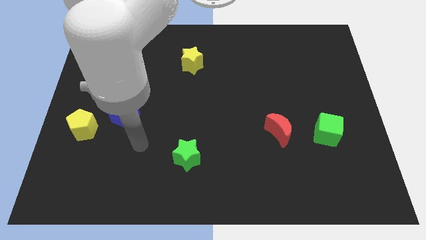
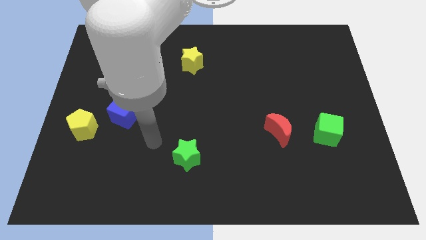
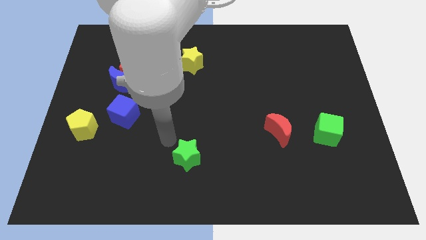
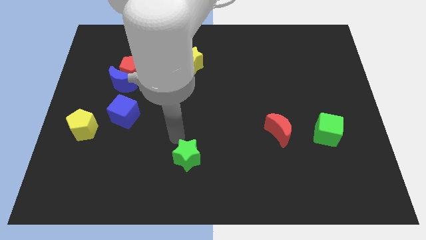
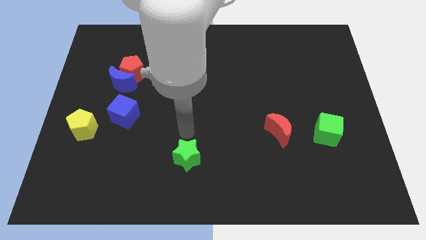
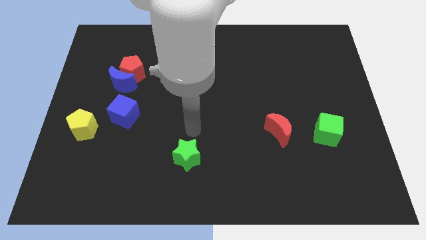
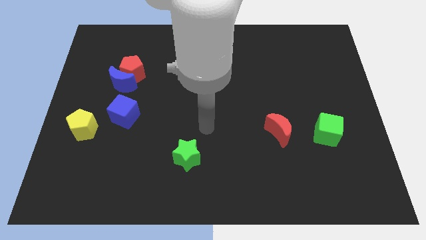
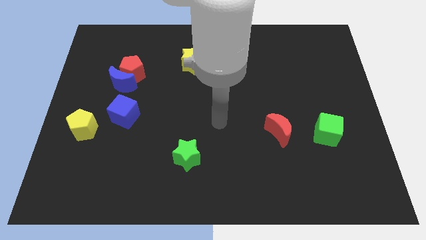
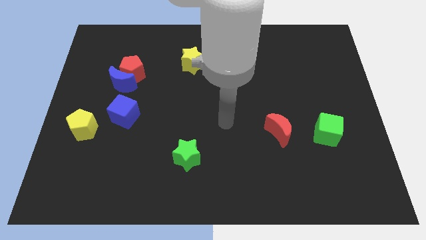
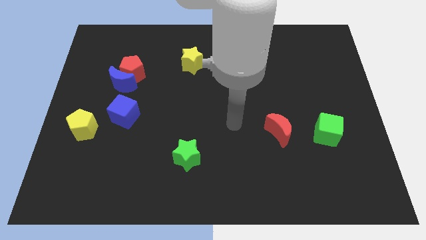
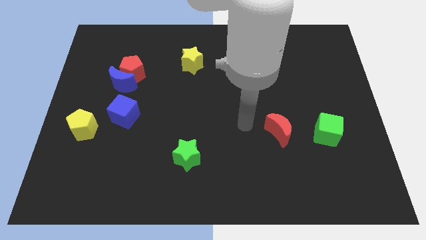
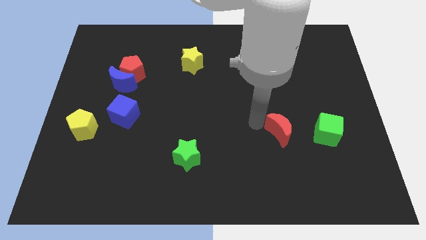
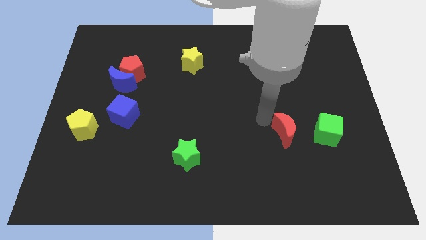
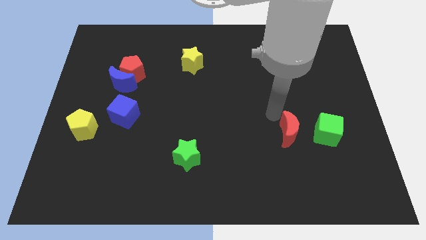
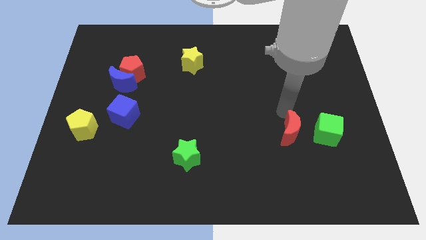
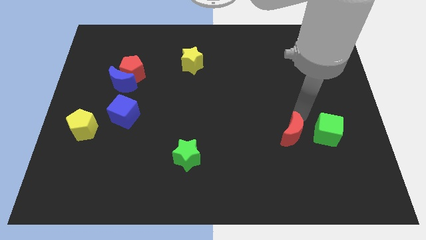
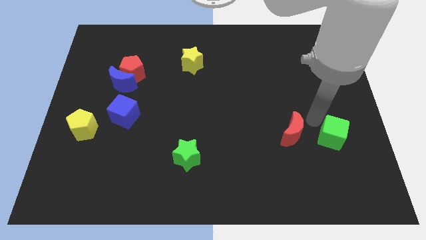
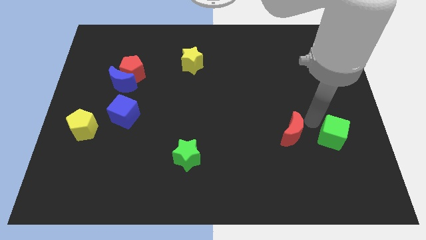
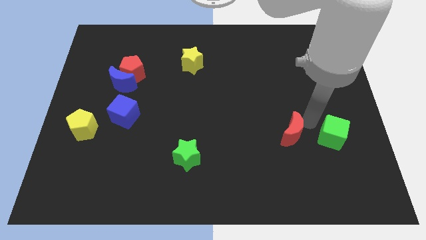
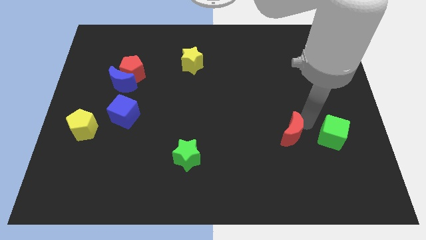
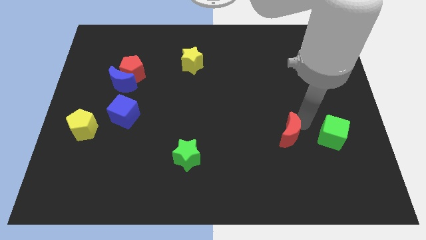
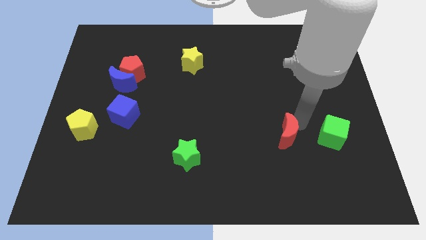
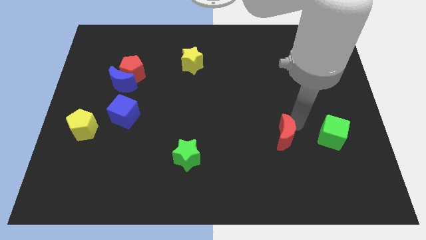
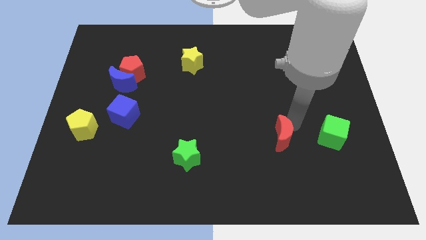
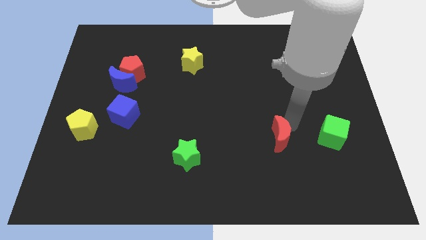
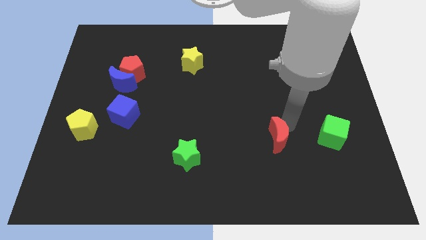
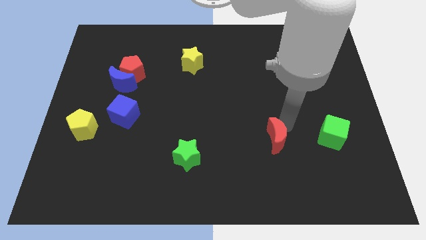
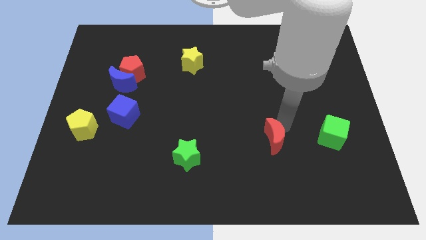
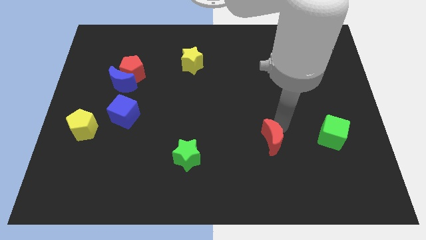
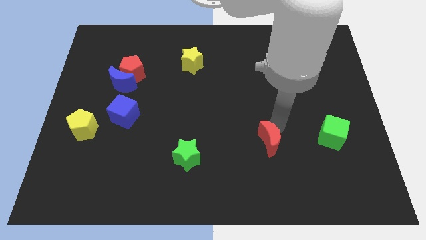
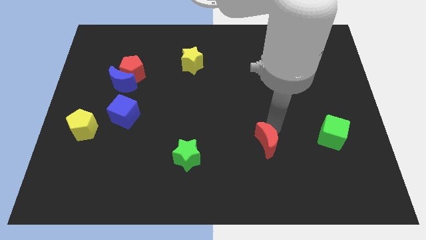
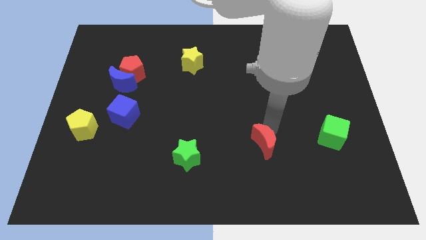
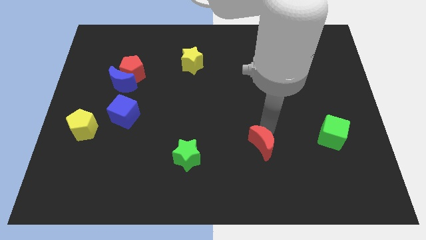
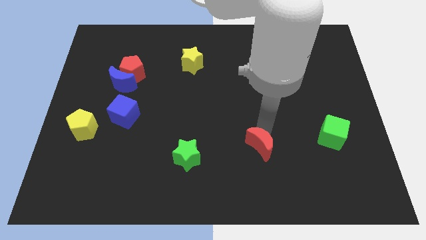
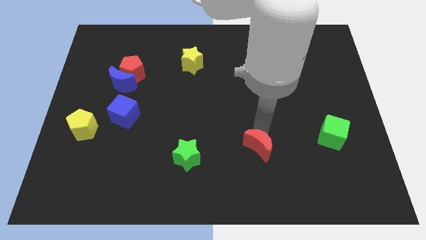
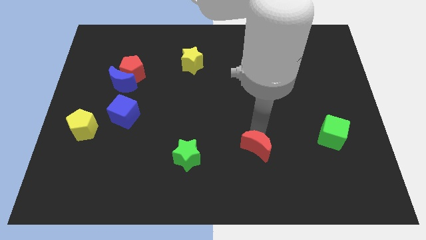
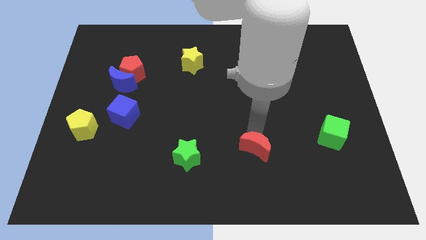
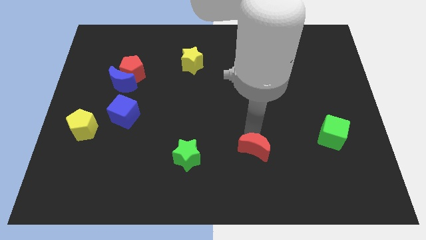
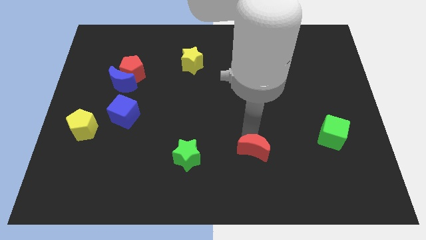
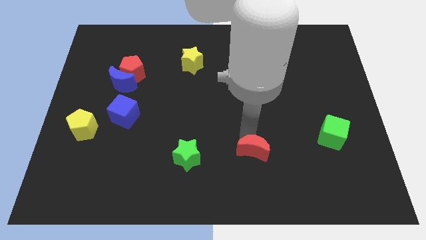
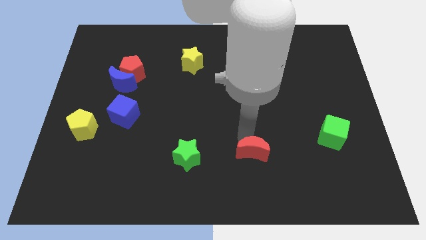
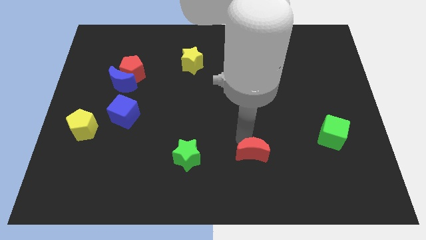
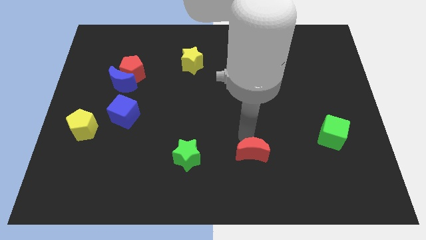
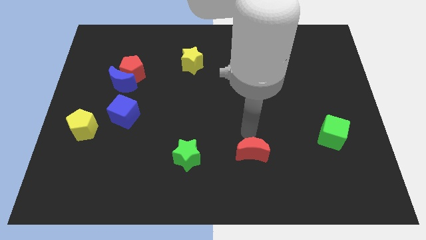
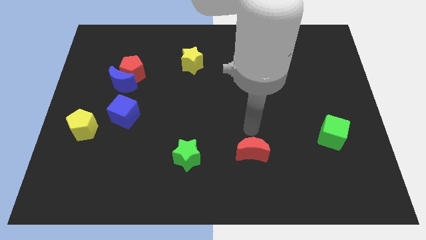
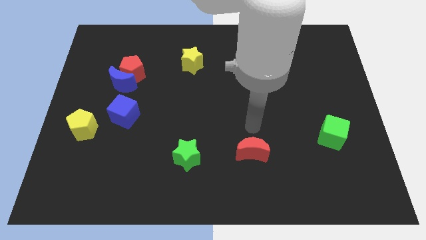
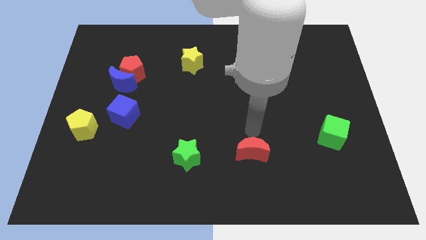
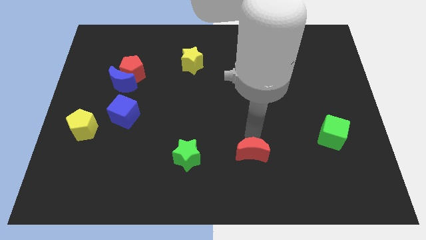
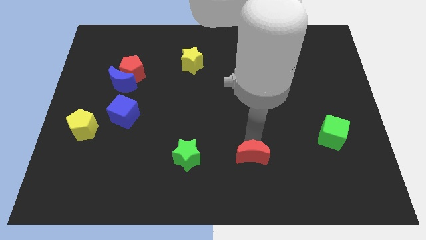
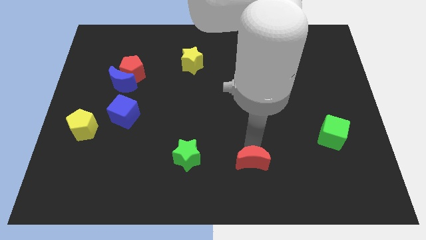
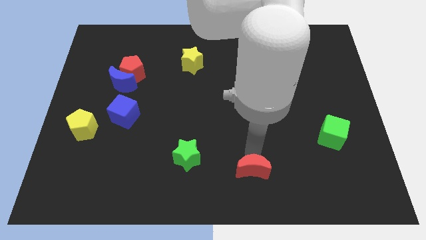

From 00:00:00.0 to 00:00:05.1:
put the red moon to the bottom

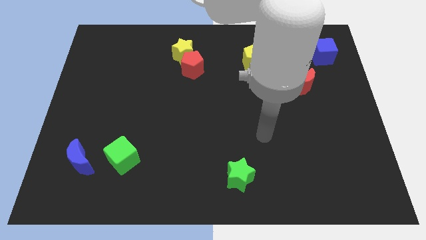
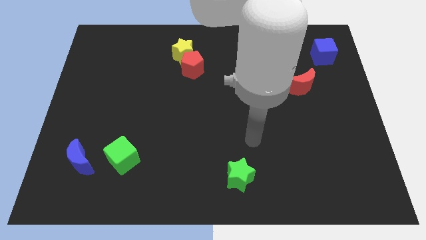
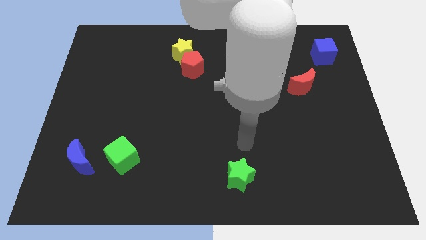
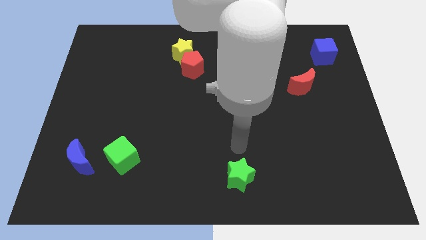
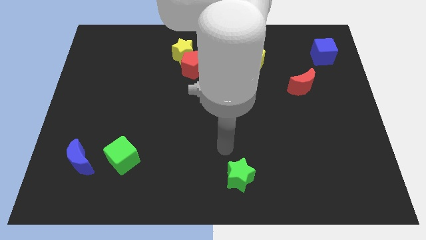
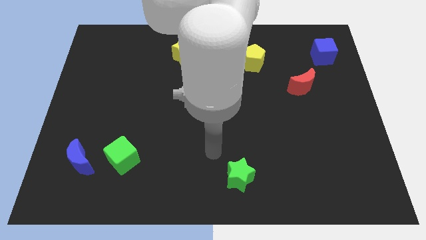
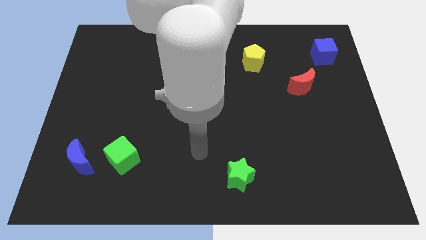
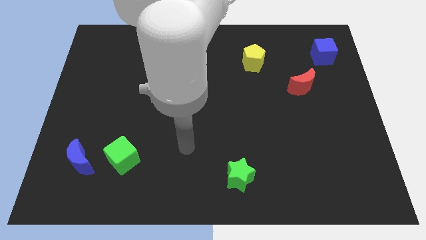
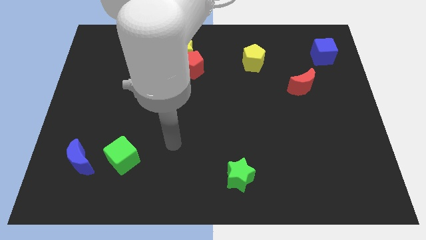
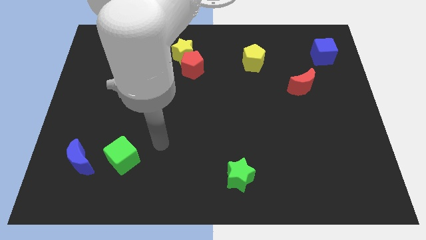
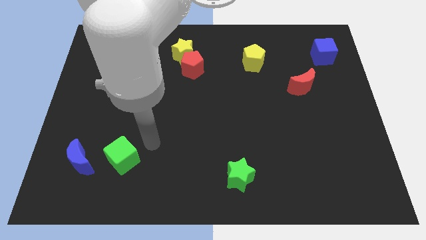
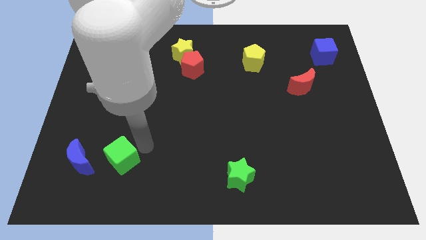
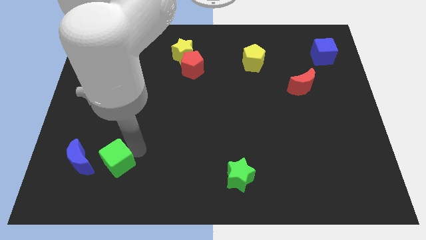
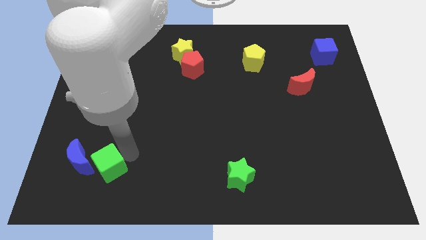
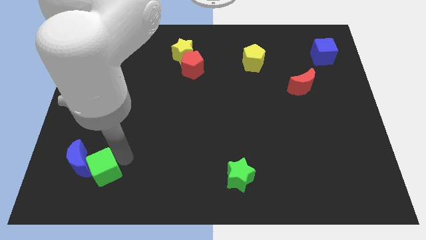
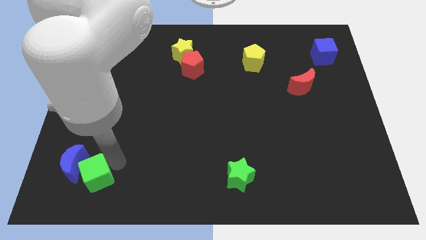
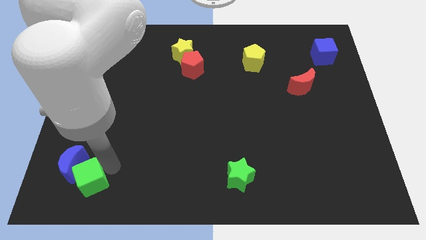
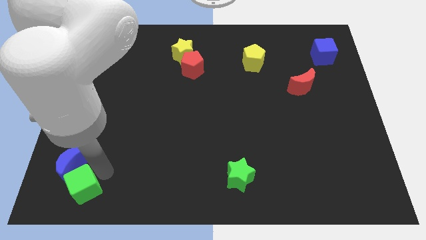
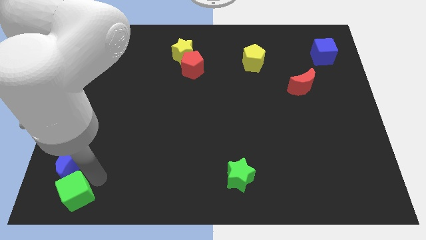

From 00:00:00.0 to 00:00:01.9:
push the green cube to the bottom left
